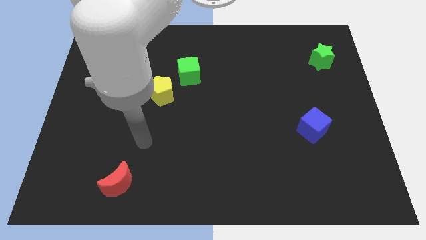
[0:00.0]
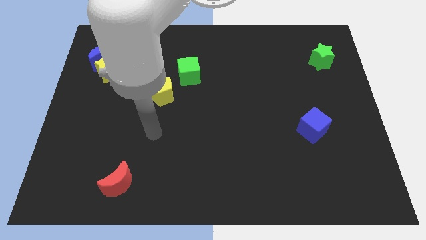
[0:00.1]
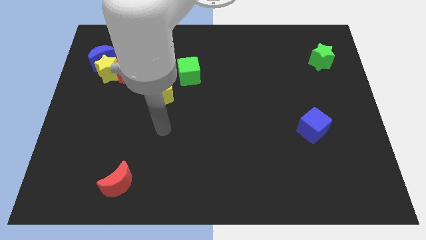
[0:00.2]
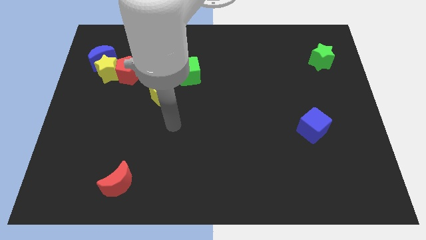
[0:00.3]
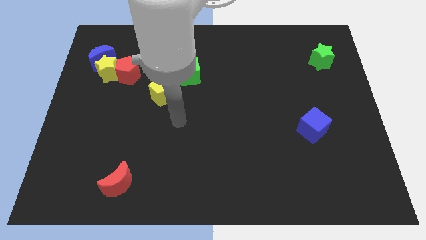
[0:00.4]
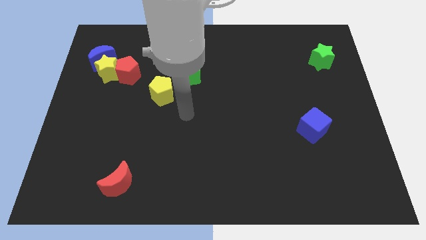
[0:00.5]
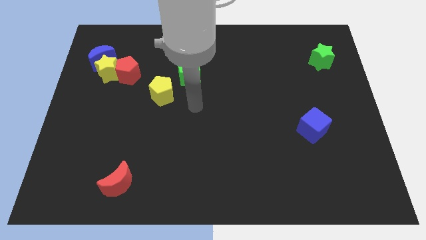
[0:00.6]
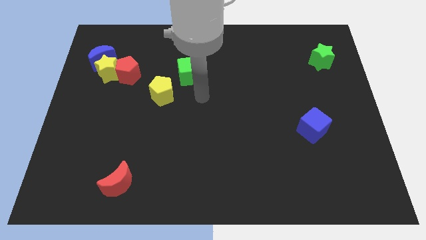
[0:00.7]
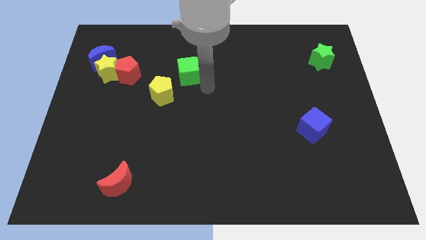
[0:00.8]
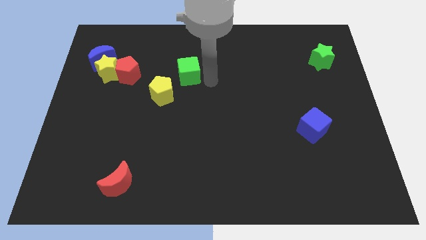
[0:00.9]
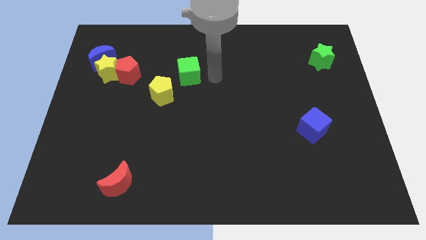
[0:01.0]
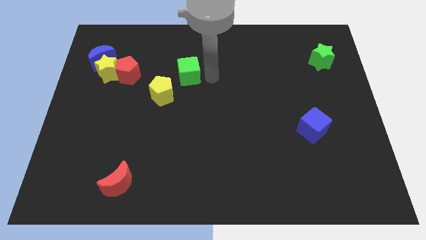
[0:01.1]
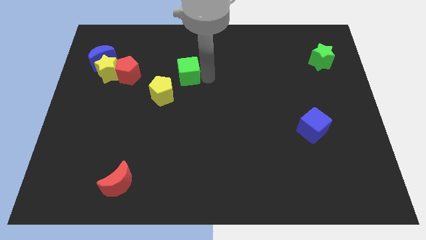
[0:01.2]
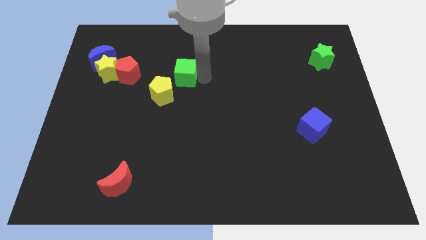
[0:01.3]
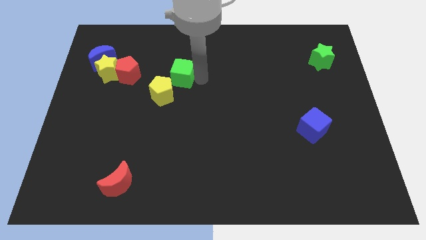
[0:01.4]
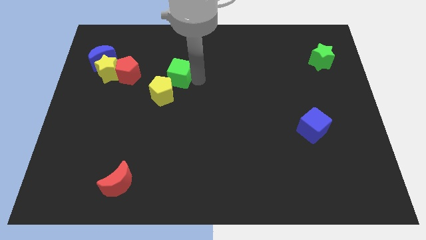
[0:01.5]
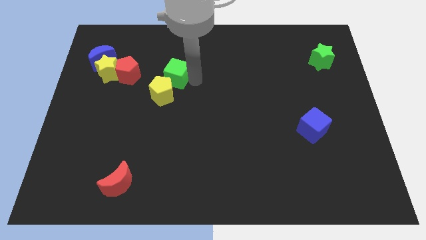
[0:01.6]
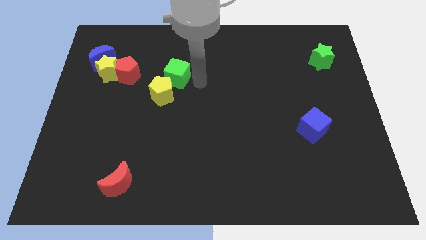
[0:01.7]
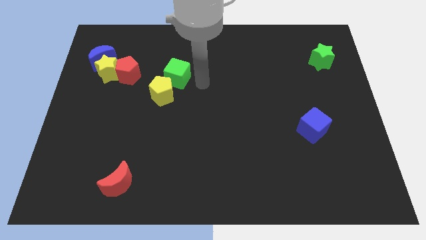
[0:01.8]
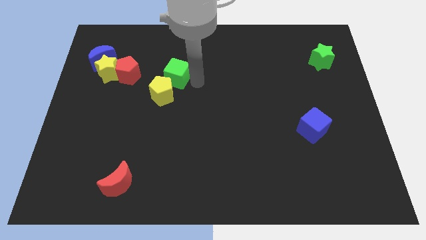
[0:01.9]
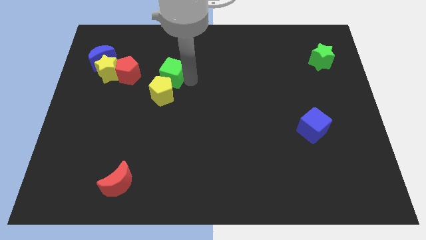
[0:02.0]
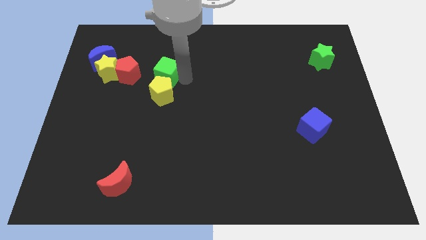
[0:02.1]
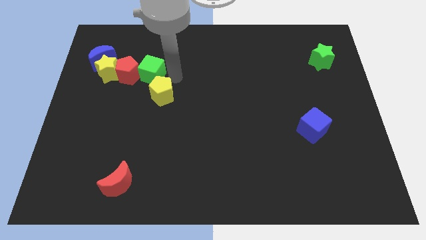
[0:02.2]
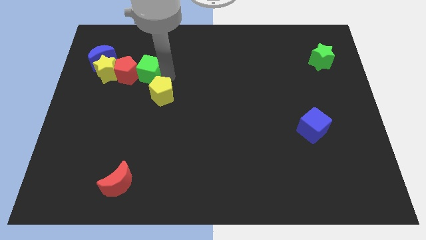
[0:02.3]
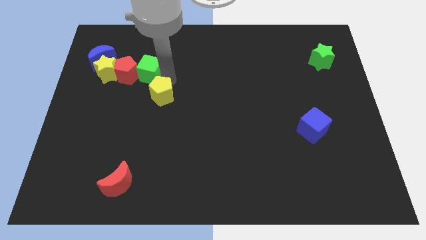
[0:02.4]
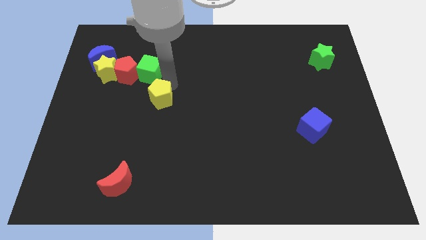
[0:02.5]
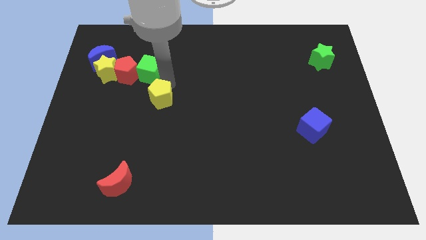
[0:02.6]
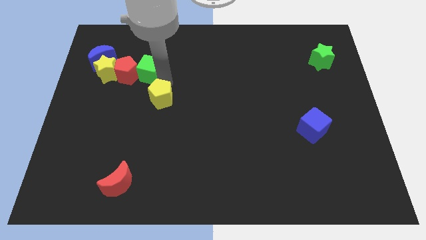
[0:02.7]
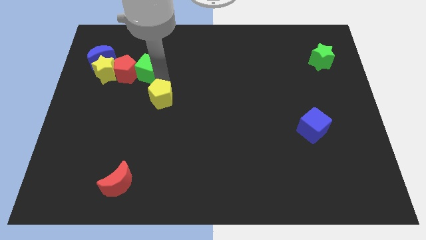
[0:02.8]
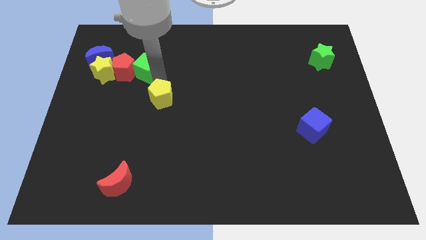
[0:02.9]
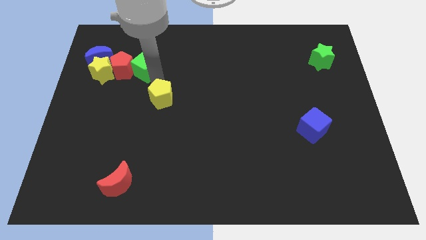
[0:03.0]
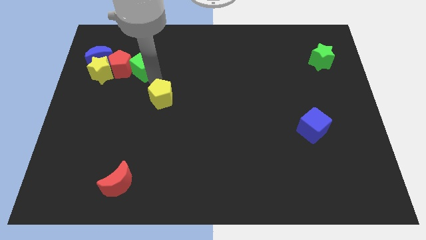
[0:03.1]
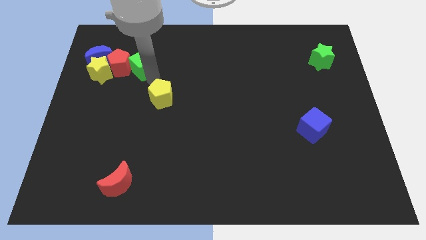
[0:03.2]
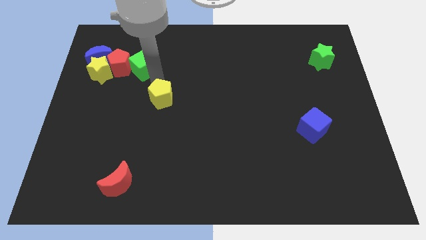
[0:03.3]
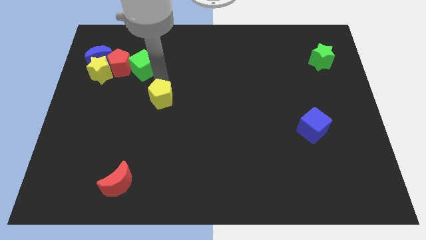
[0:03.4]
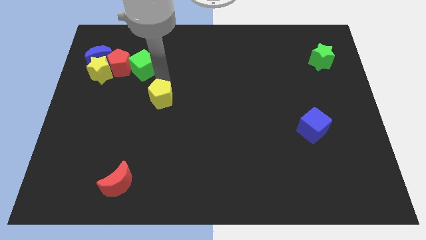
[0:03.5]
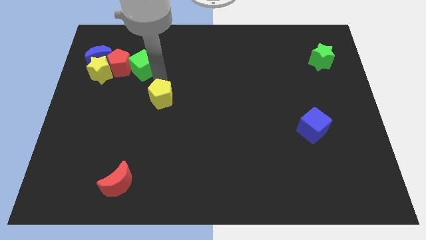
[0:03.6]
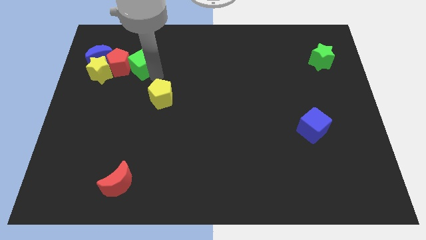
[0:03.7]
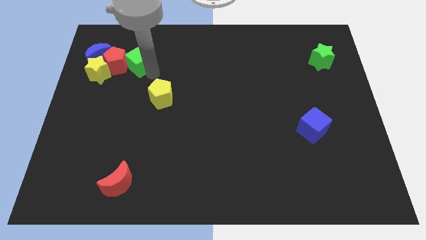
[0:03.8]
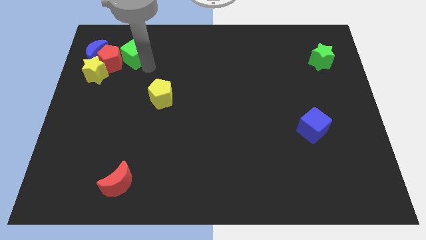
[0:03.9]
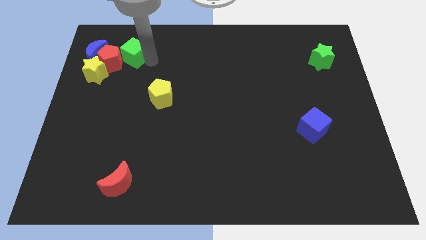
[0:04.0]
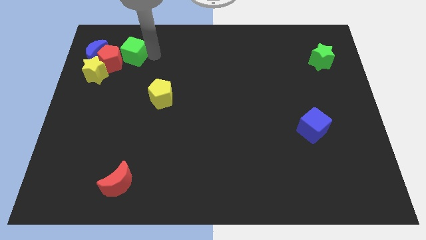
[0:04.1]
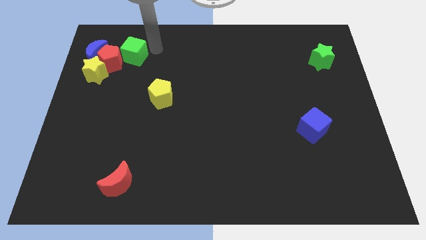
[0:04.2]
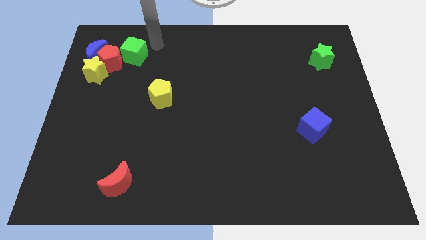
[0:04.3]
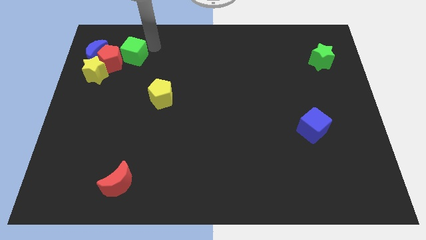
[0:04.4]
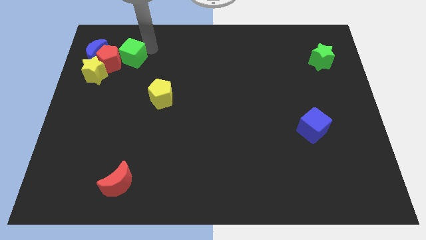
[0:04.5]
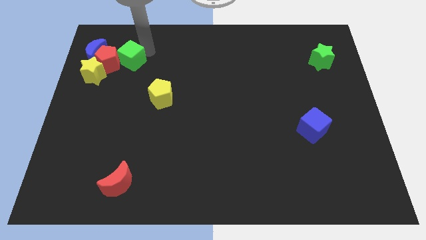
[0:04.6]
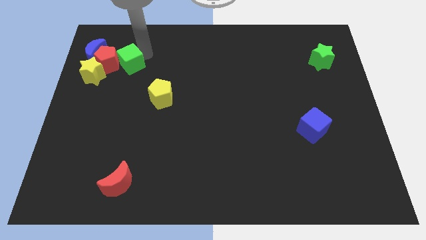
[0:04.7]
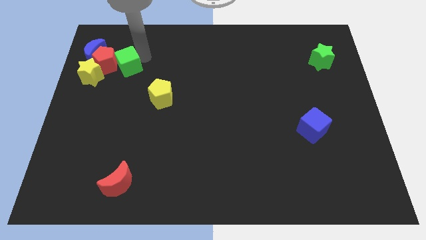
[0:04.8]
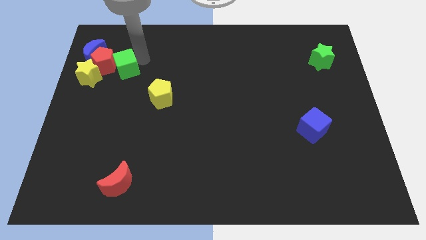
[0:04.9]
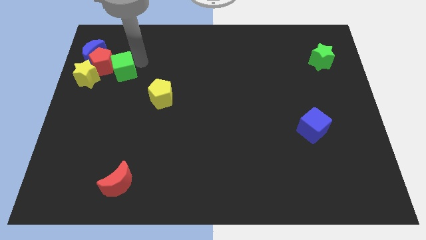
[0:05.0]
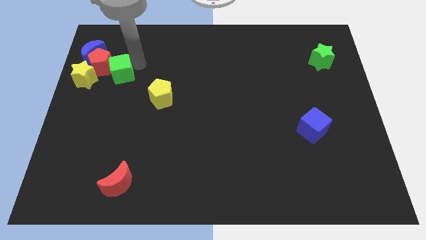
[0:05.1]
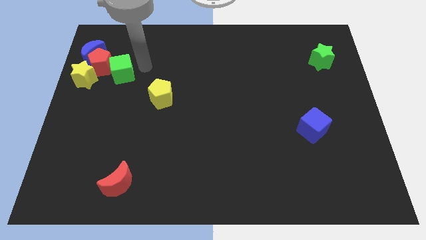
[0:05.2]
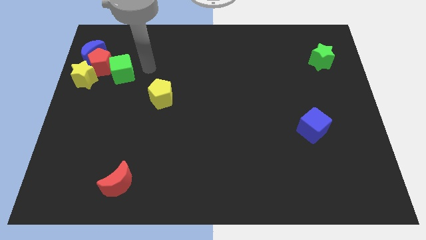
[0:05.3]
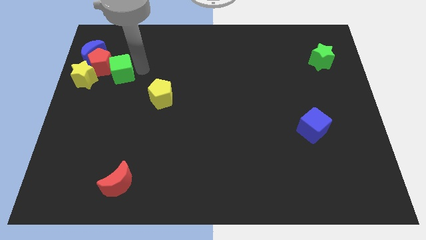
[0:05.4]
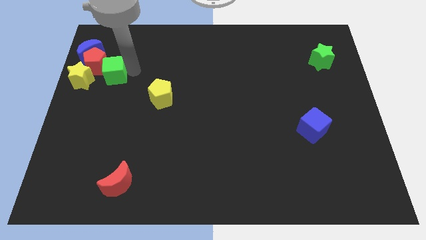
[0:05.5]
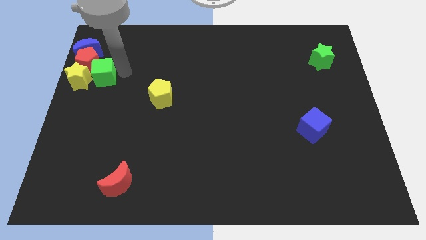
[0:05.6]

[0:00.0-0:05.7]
push the green cube to the yellow star

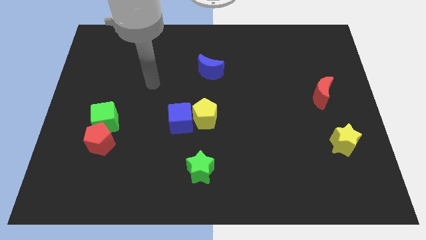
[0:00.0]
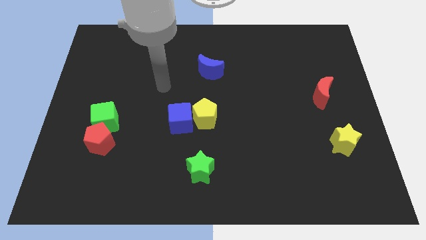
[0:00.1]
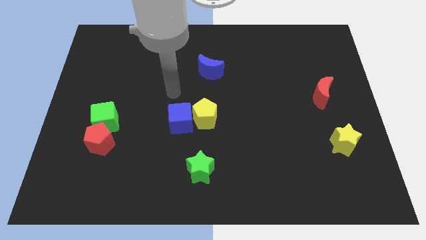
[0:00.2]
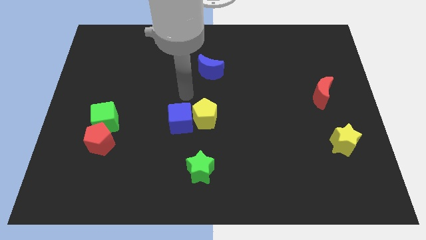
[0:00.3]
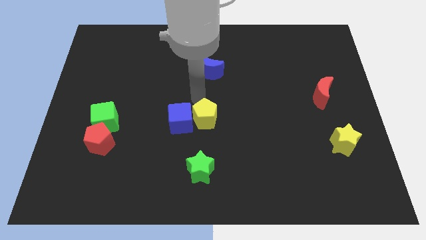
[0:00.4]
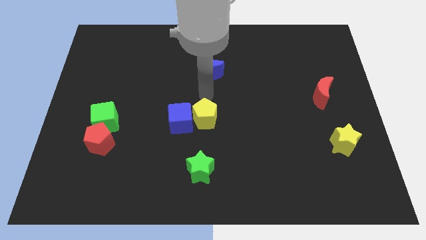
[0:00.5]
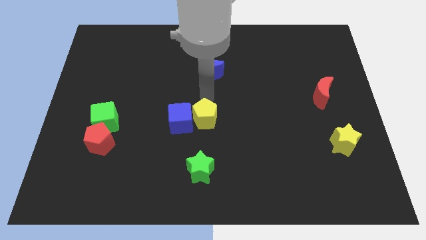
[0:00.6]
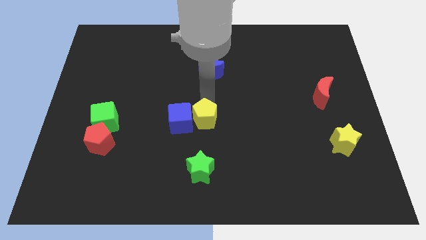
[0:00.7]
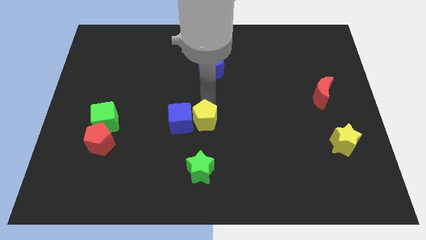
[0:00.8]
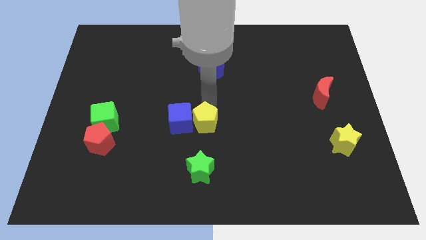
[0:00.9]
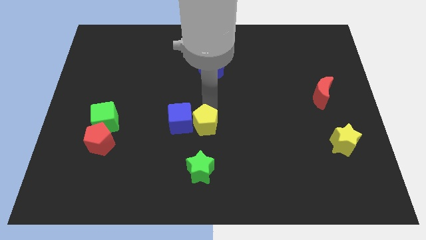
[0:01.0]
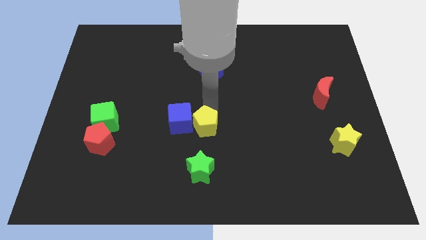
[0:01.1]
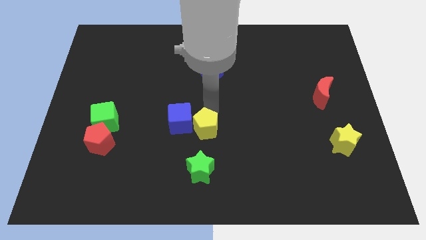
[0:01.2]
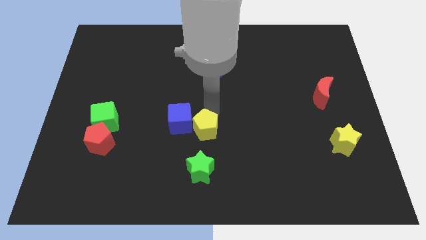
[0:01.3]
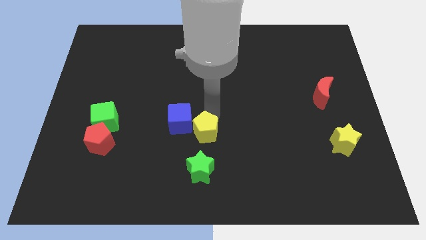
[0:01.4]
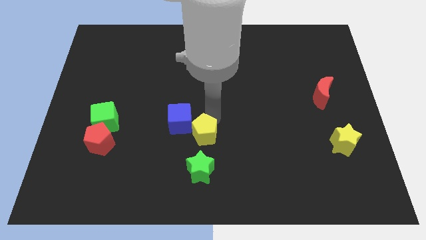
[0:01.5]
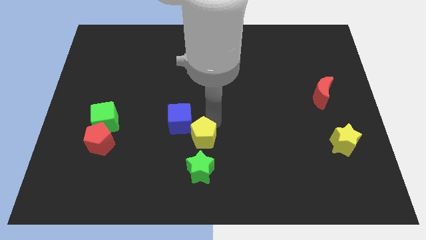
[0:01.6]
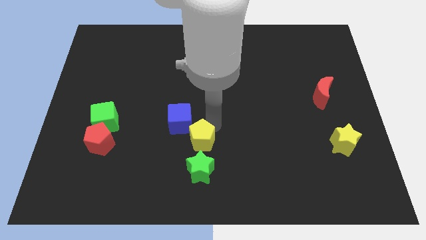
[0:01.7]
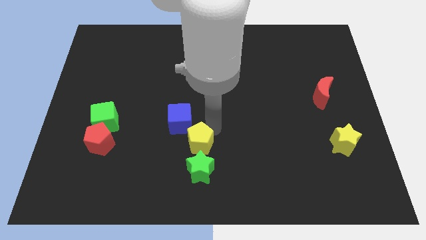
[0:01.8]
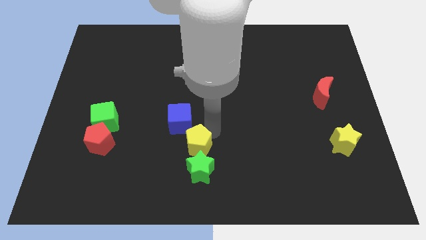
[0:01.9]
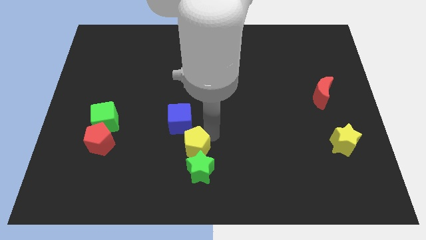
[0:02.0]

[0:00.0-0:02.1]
move the yellow pentagon to the green star
